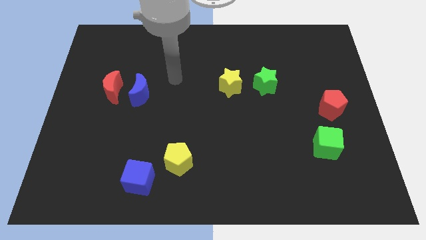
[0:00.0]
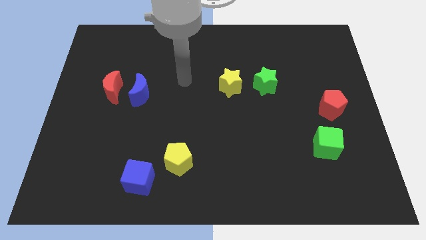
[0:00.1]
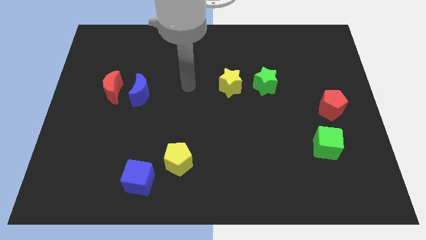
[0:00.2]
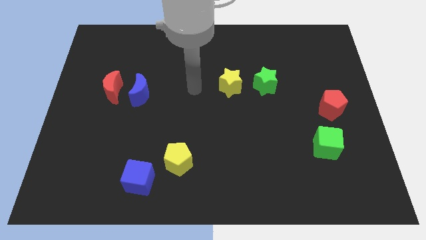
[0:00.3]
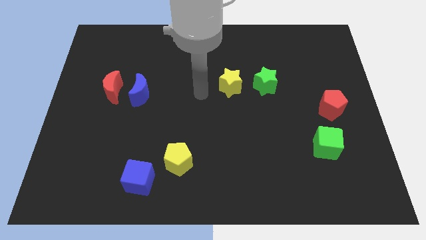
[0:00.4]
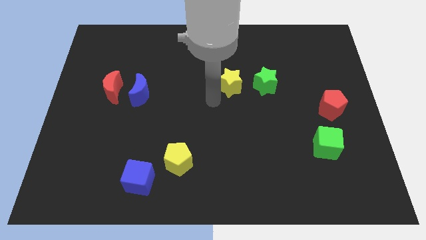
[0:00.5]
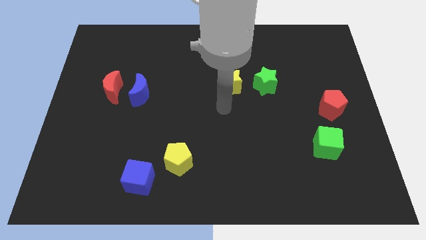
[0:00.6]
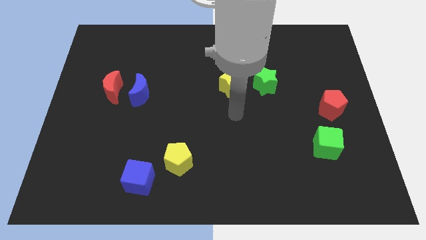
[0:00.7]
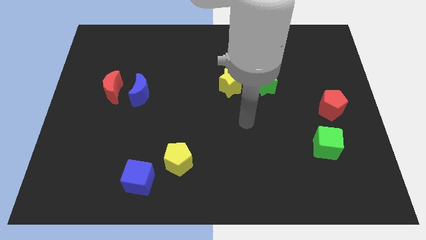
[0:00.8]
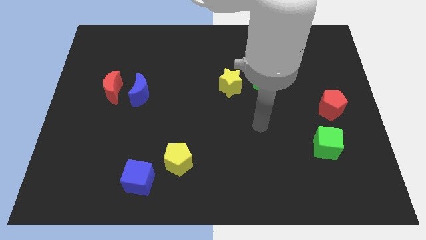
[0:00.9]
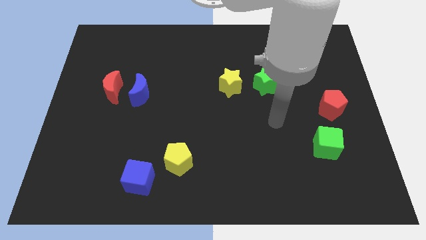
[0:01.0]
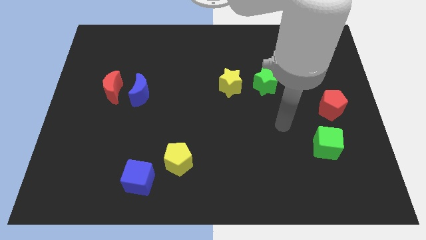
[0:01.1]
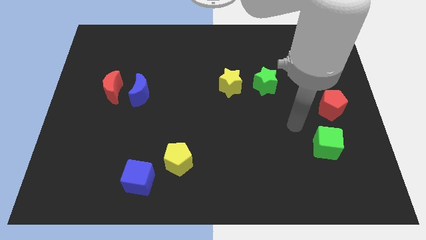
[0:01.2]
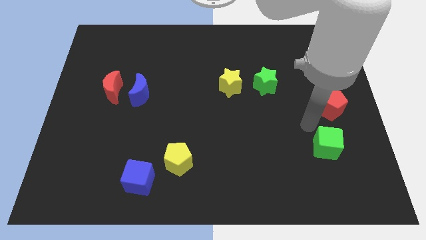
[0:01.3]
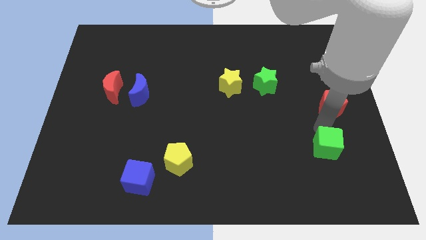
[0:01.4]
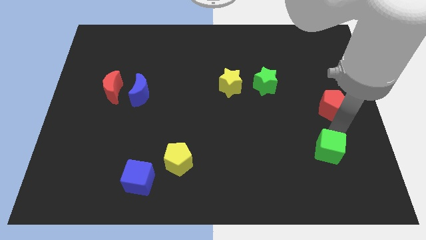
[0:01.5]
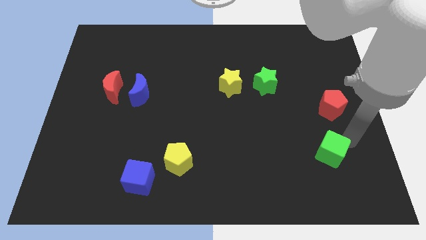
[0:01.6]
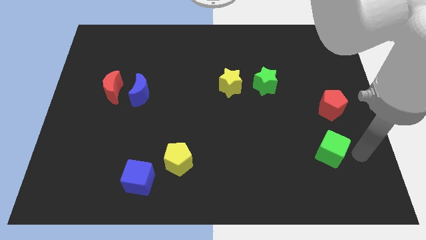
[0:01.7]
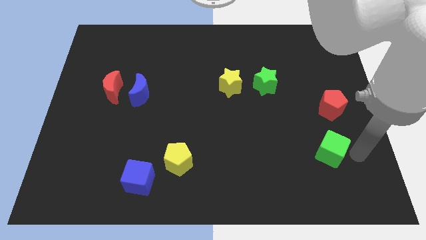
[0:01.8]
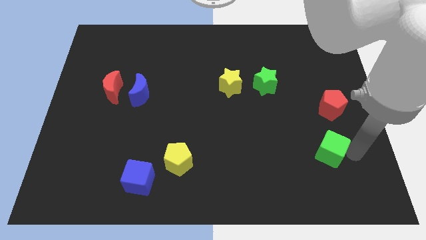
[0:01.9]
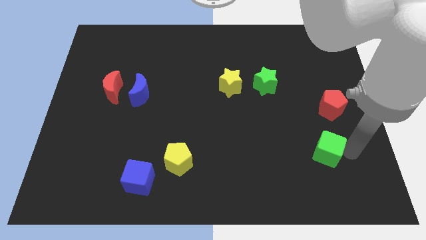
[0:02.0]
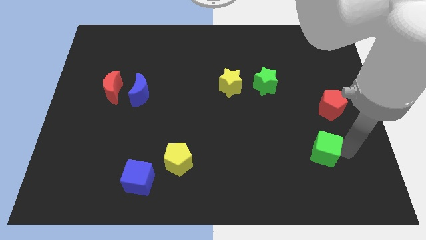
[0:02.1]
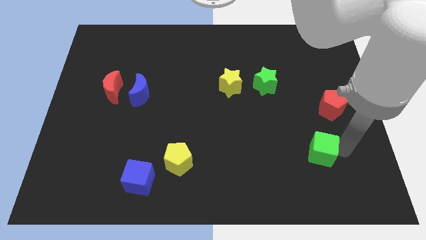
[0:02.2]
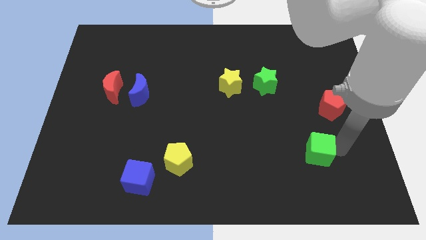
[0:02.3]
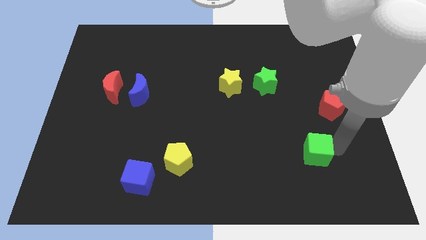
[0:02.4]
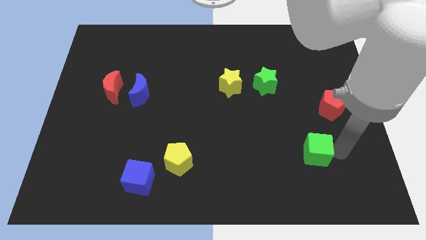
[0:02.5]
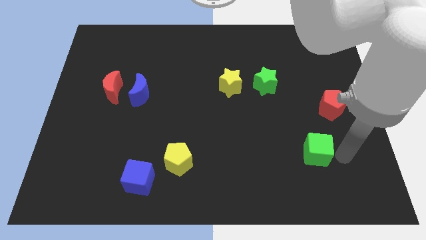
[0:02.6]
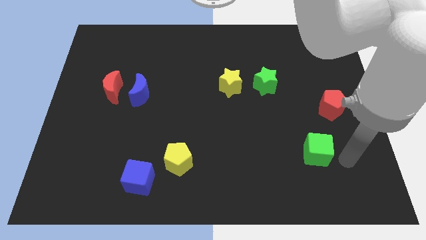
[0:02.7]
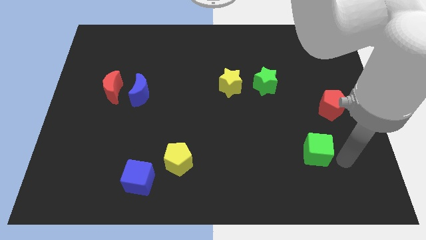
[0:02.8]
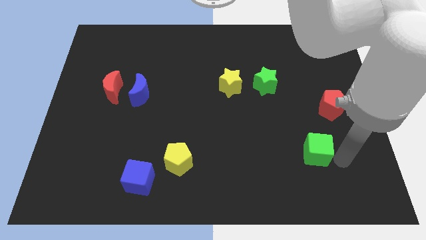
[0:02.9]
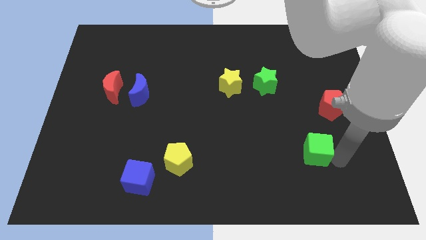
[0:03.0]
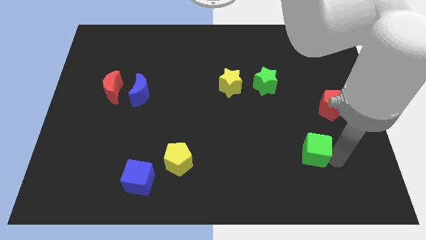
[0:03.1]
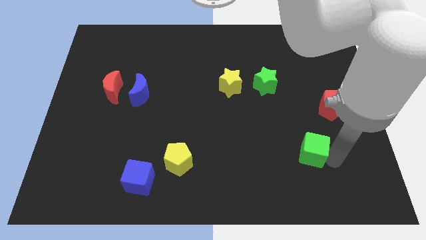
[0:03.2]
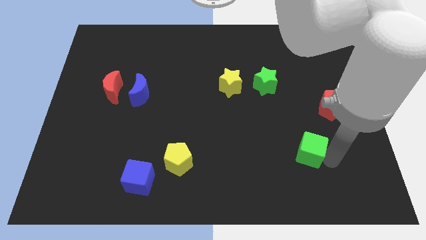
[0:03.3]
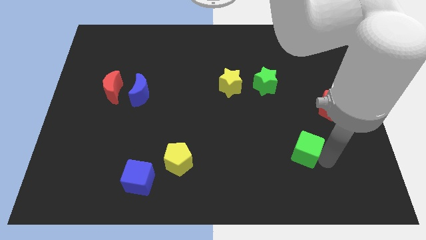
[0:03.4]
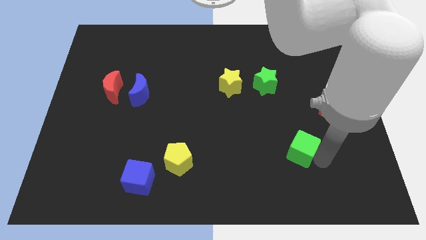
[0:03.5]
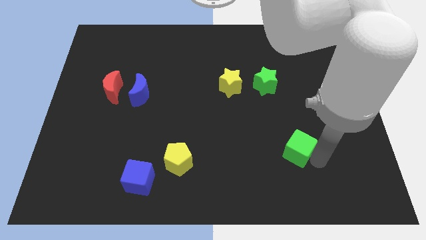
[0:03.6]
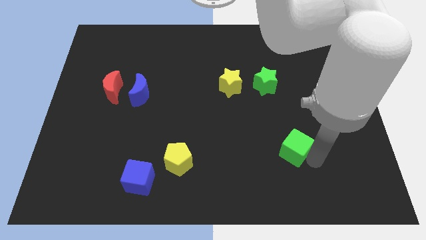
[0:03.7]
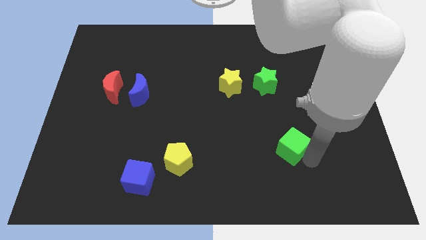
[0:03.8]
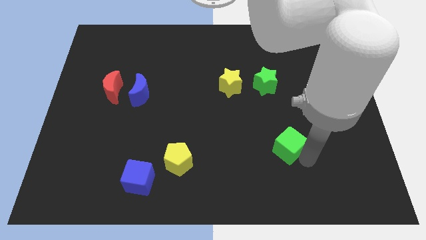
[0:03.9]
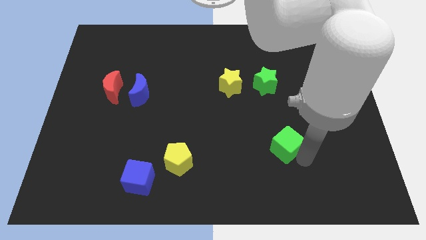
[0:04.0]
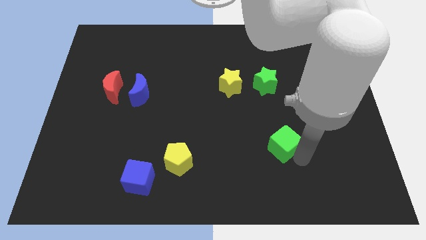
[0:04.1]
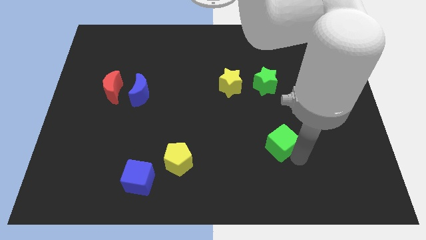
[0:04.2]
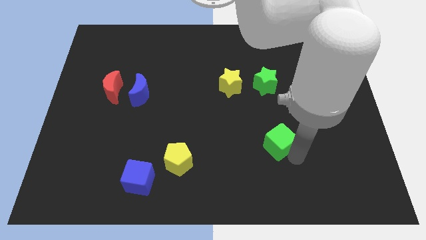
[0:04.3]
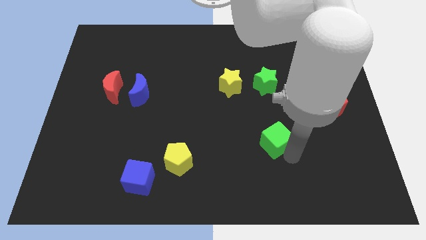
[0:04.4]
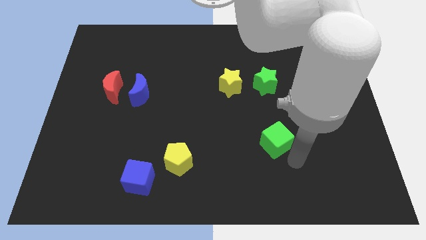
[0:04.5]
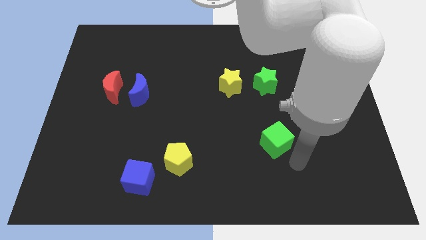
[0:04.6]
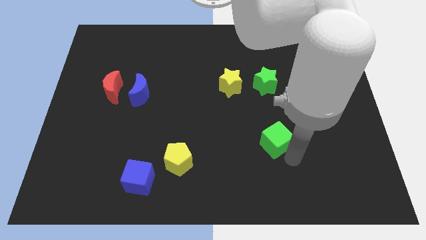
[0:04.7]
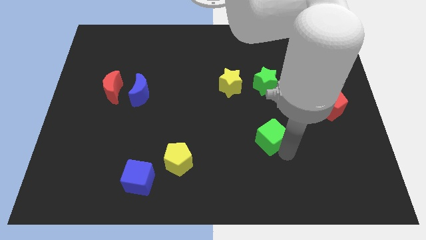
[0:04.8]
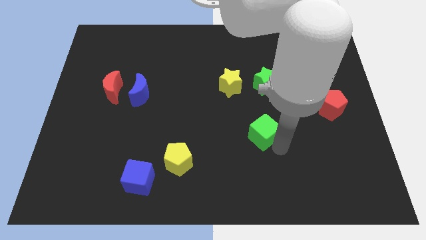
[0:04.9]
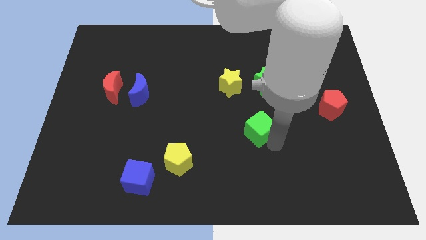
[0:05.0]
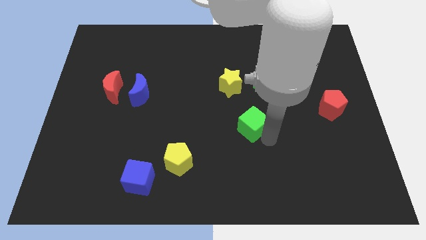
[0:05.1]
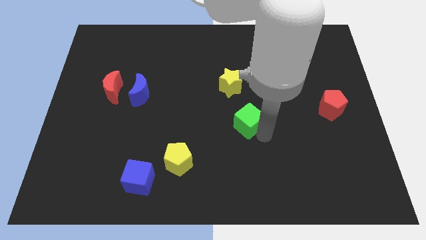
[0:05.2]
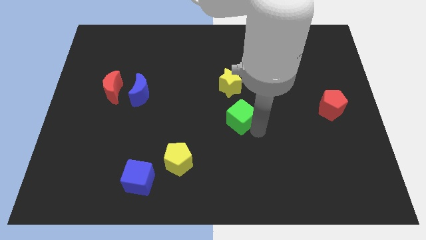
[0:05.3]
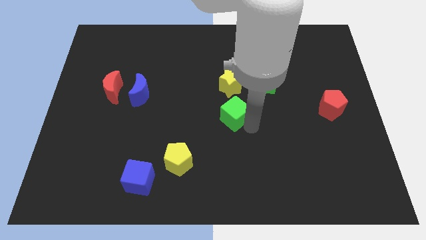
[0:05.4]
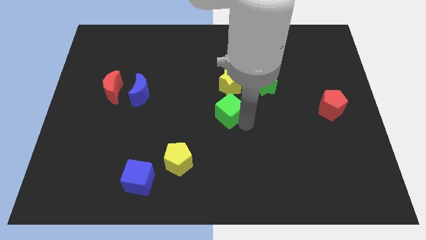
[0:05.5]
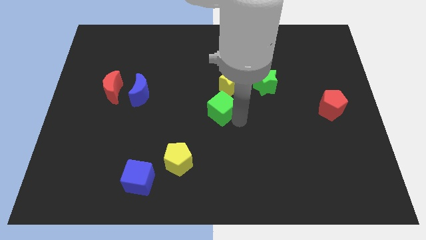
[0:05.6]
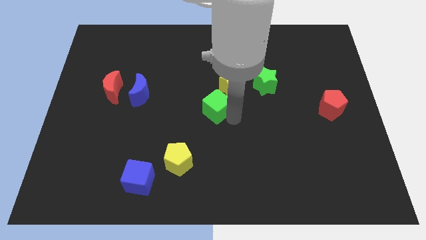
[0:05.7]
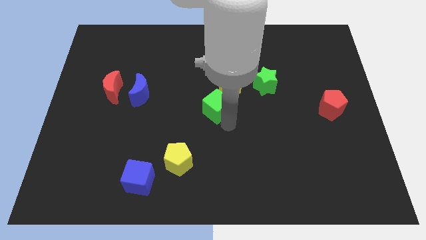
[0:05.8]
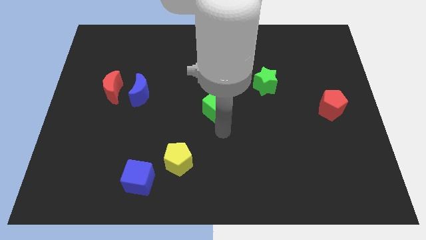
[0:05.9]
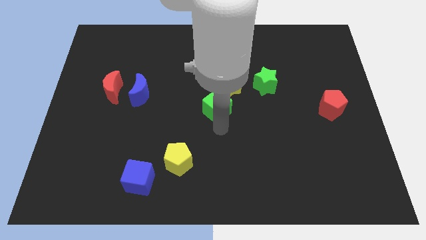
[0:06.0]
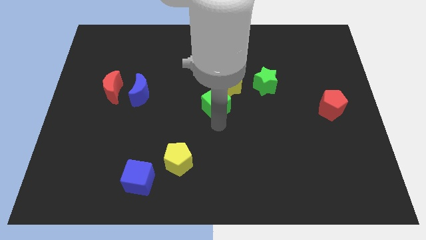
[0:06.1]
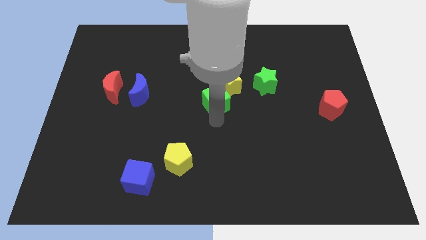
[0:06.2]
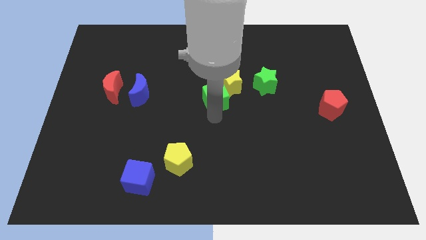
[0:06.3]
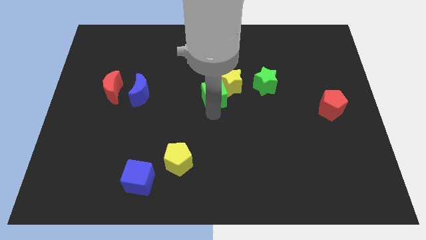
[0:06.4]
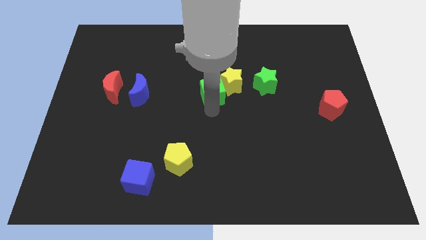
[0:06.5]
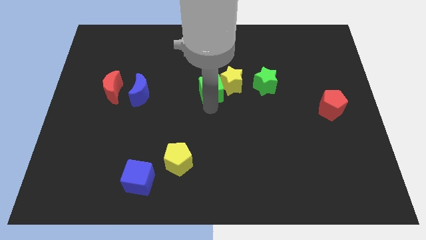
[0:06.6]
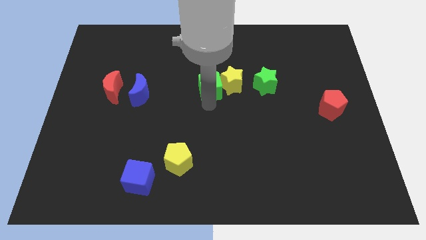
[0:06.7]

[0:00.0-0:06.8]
push the green cube diagonally up and to the left of the yellow star
